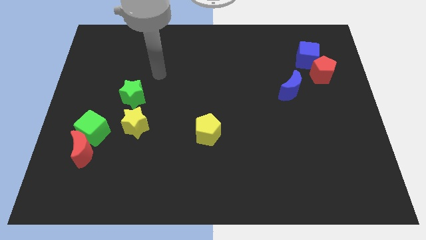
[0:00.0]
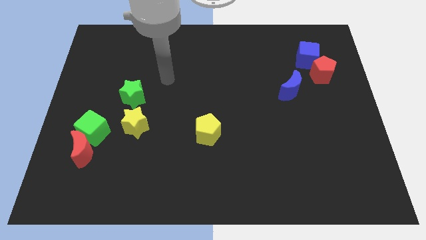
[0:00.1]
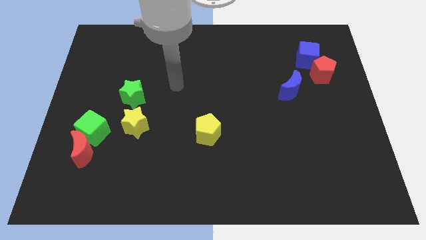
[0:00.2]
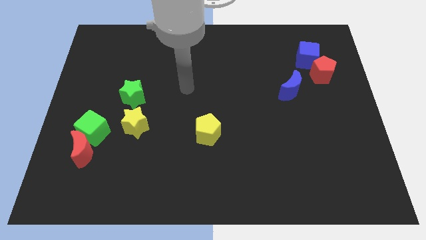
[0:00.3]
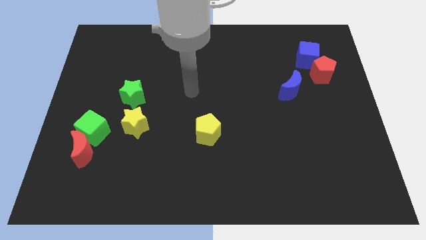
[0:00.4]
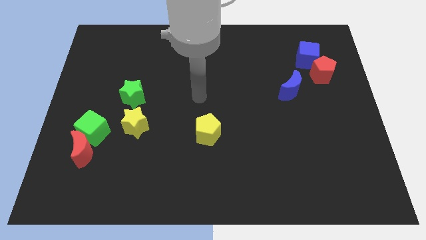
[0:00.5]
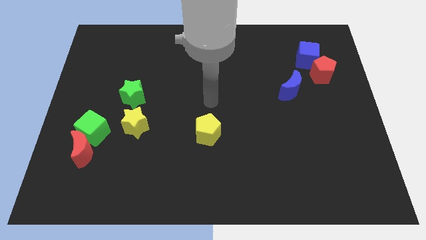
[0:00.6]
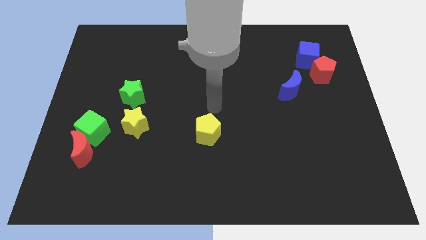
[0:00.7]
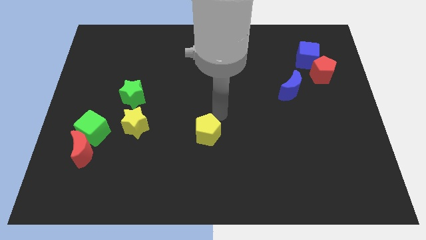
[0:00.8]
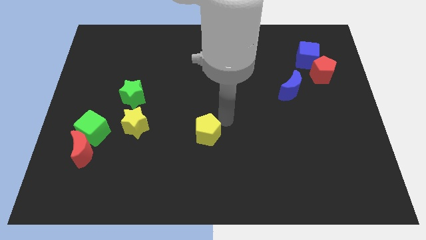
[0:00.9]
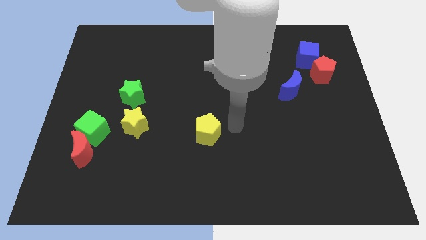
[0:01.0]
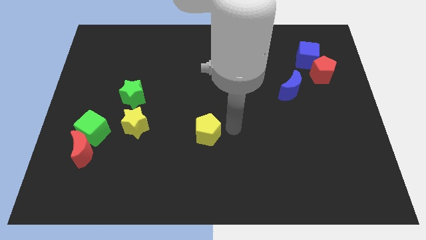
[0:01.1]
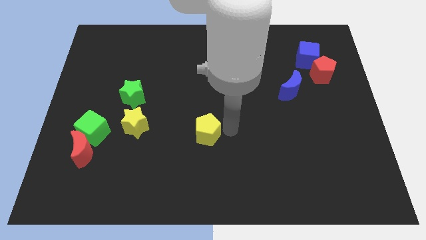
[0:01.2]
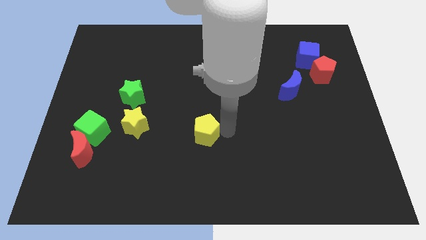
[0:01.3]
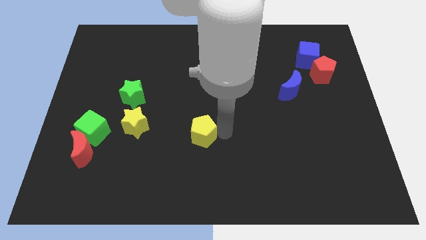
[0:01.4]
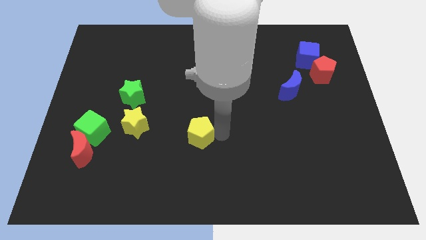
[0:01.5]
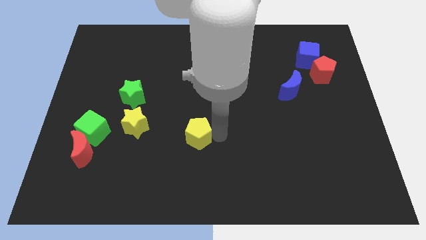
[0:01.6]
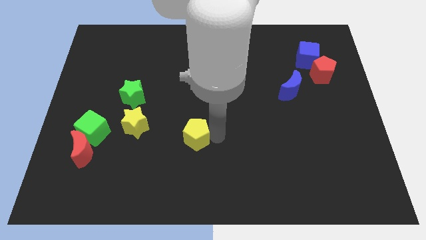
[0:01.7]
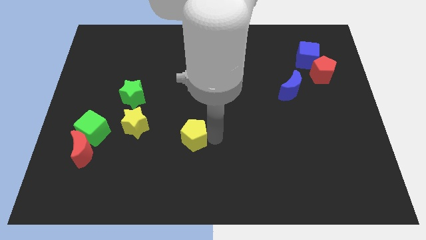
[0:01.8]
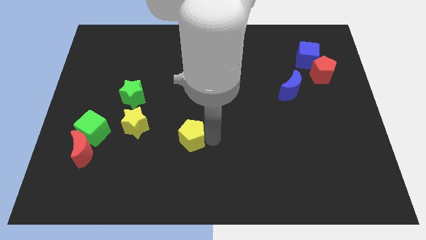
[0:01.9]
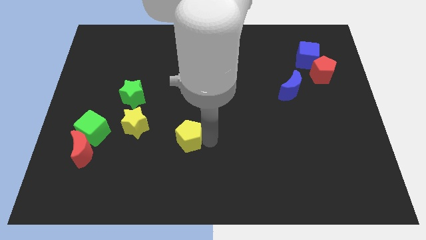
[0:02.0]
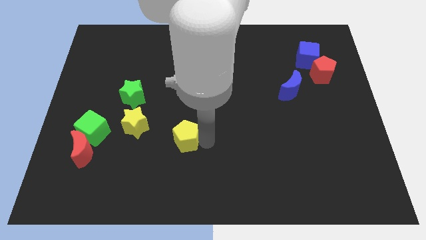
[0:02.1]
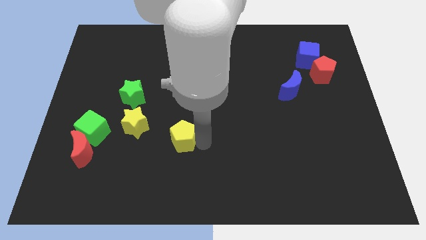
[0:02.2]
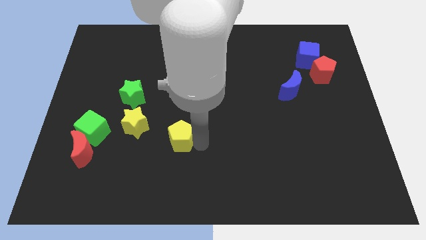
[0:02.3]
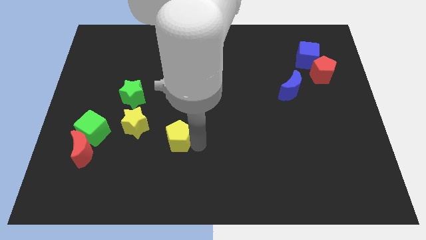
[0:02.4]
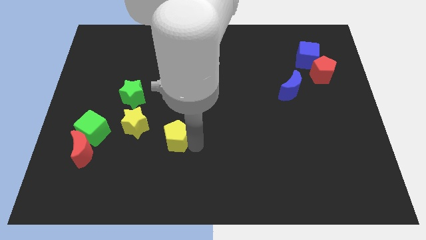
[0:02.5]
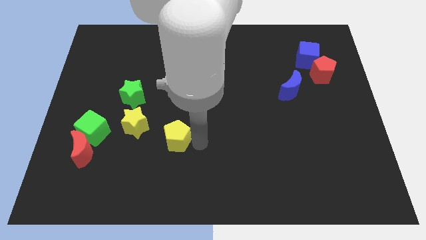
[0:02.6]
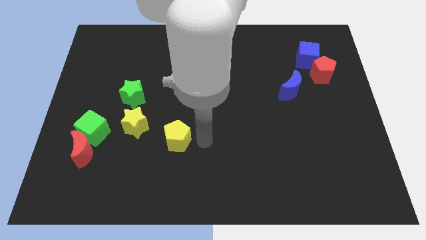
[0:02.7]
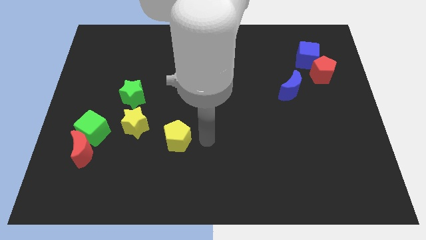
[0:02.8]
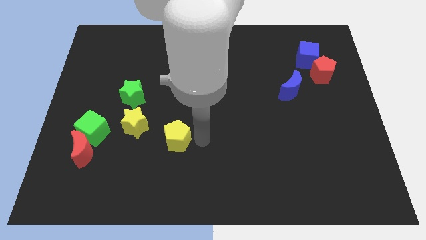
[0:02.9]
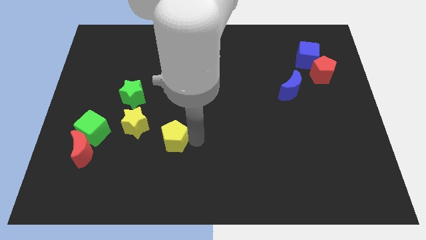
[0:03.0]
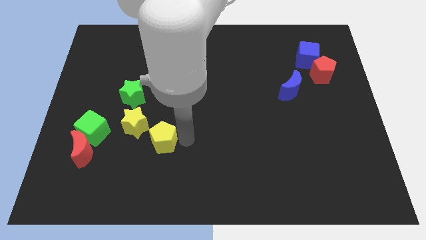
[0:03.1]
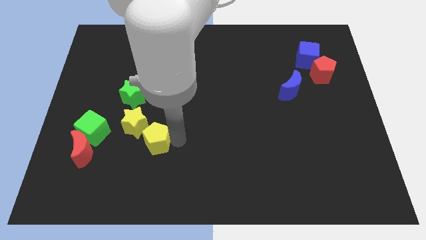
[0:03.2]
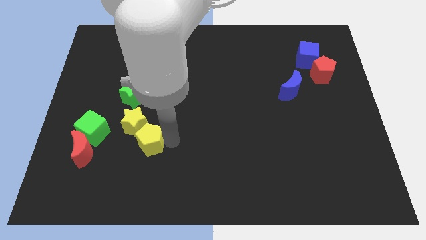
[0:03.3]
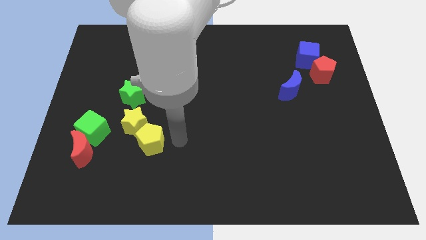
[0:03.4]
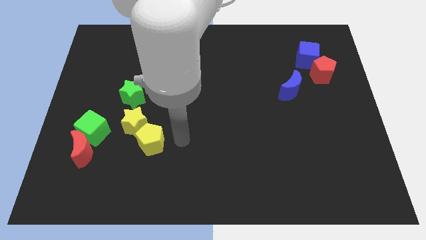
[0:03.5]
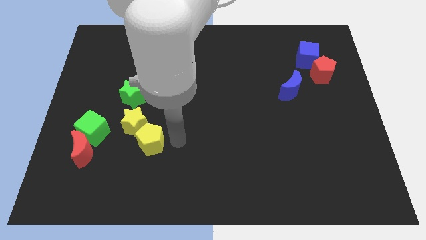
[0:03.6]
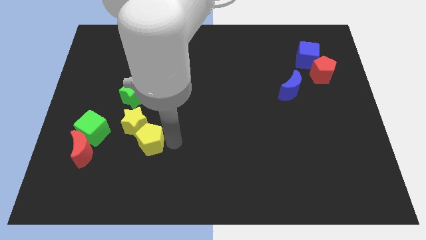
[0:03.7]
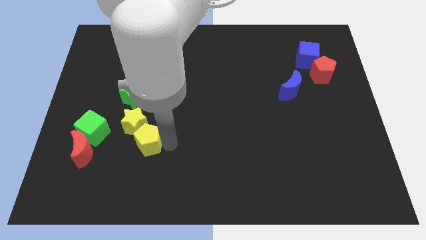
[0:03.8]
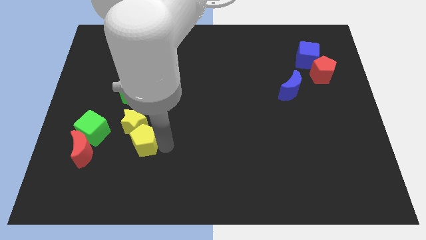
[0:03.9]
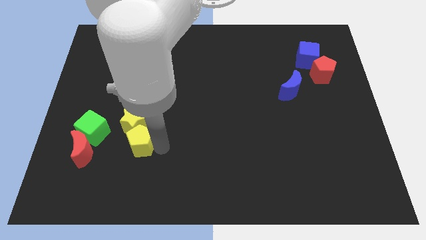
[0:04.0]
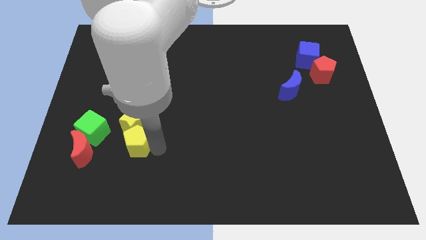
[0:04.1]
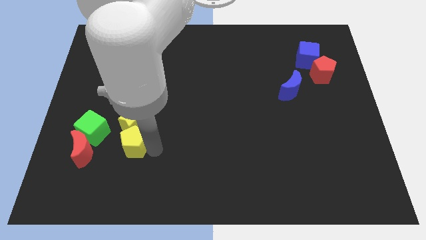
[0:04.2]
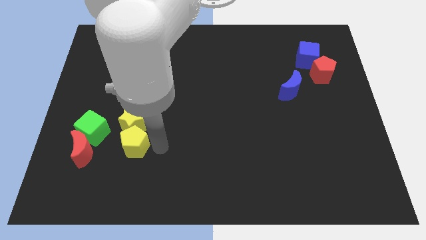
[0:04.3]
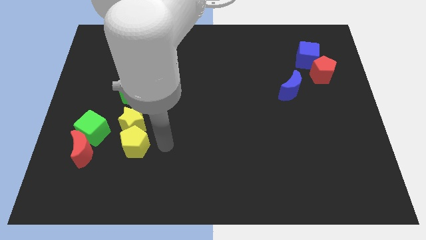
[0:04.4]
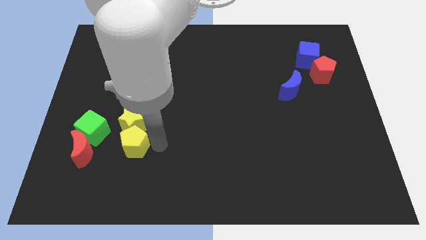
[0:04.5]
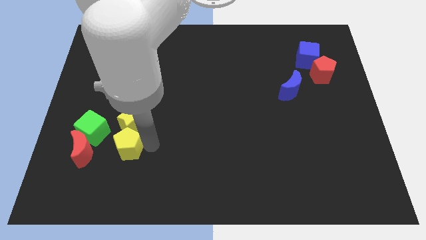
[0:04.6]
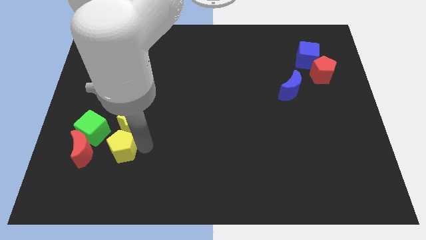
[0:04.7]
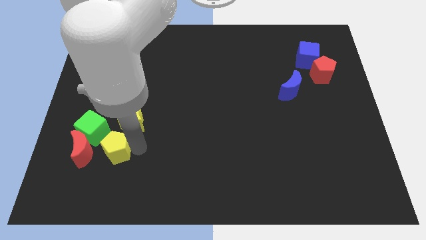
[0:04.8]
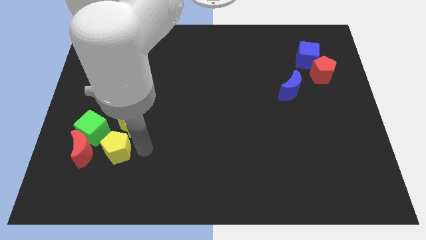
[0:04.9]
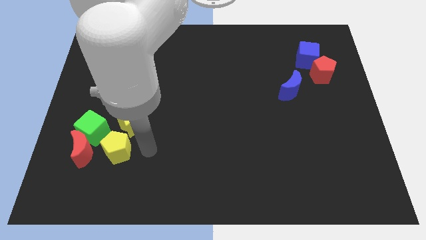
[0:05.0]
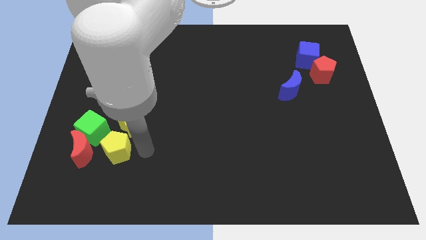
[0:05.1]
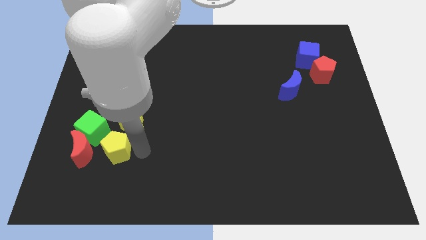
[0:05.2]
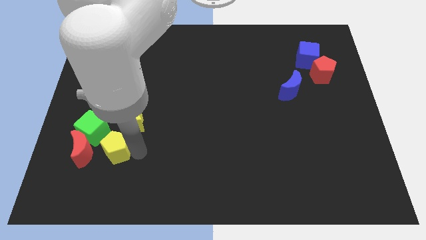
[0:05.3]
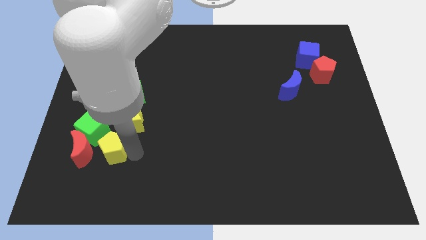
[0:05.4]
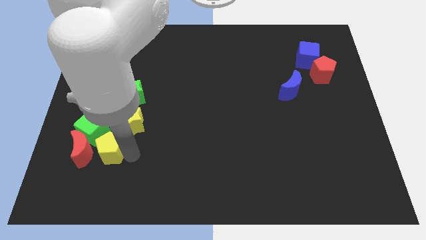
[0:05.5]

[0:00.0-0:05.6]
push the yellow pentagon next to the red moon

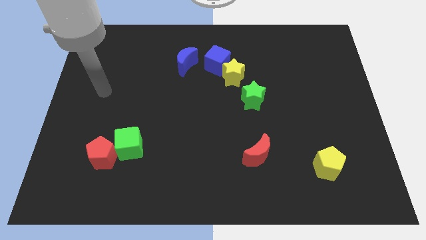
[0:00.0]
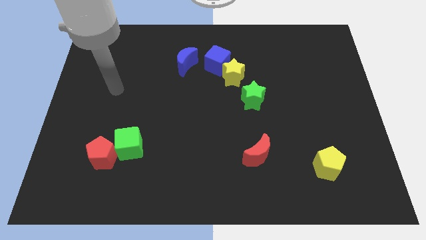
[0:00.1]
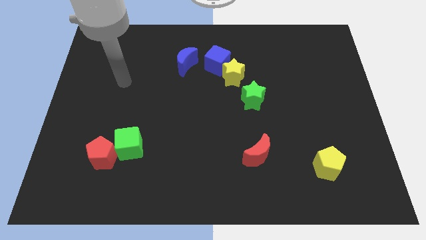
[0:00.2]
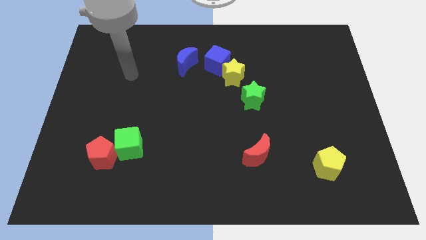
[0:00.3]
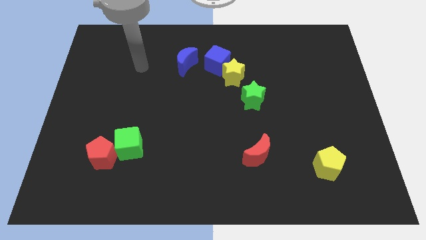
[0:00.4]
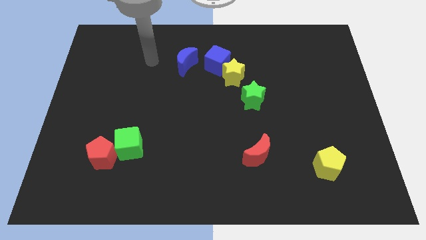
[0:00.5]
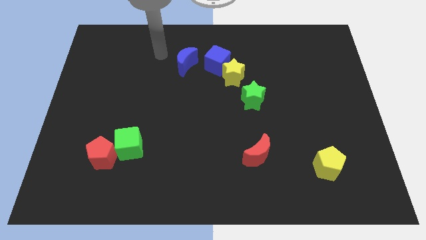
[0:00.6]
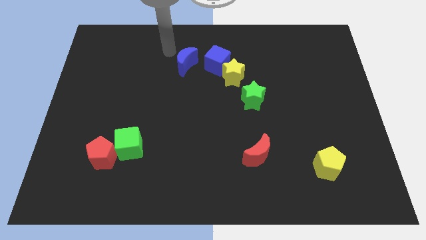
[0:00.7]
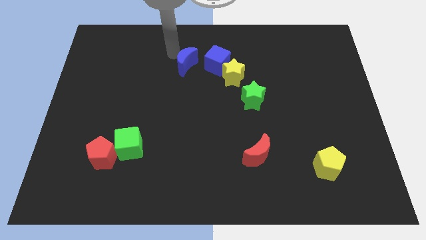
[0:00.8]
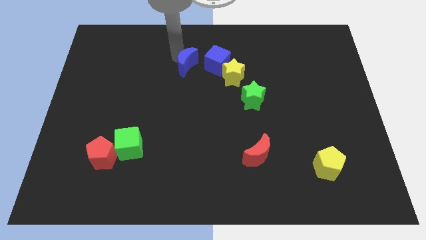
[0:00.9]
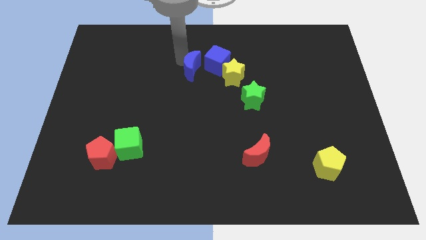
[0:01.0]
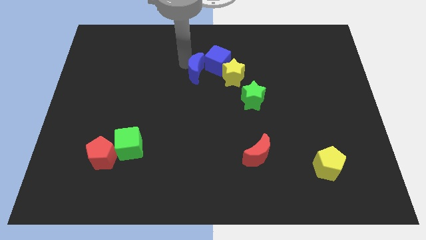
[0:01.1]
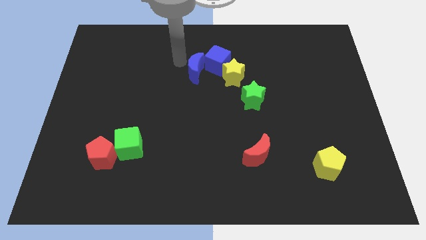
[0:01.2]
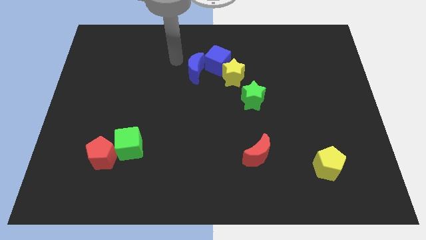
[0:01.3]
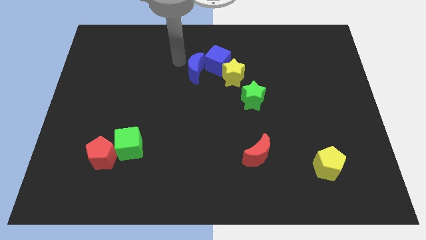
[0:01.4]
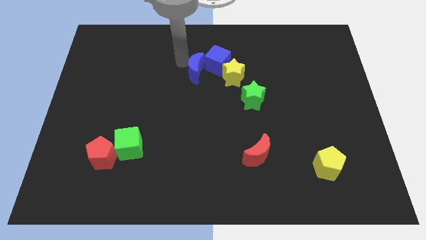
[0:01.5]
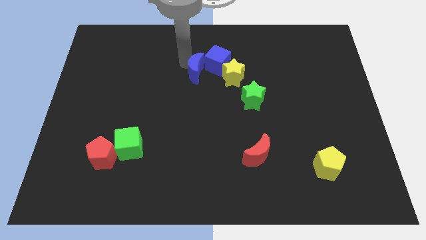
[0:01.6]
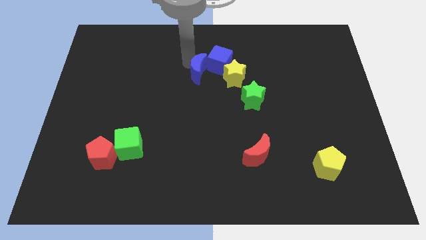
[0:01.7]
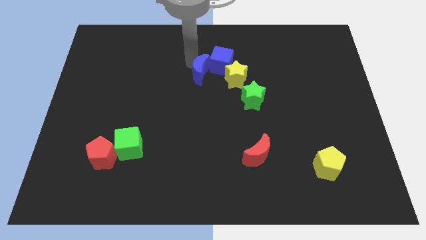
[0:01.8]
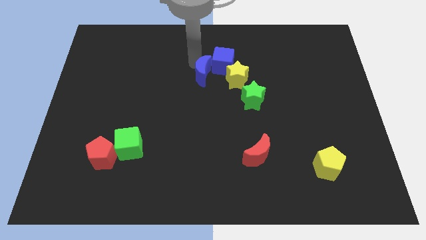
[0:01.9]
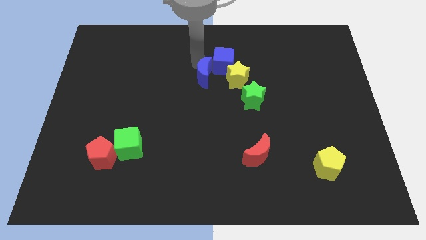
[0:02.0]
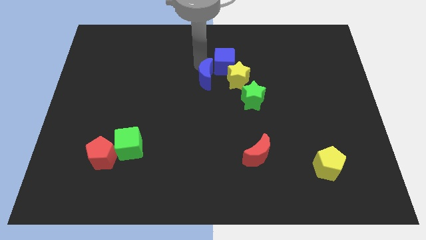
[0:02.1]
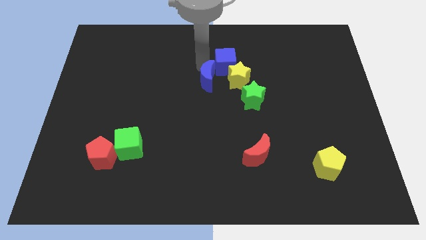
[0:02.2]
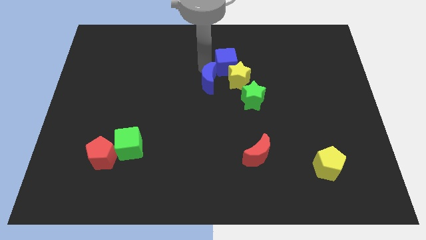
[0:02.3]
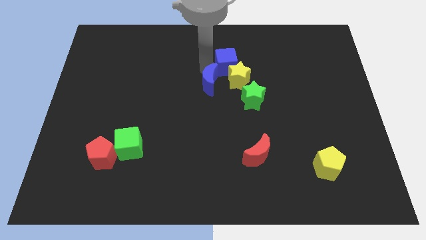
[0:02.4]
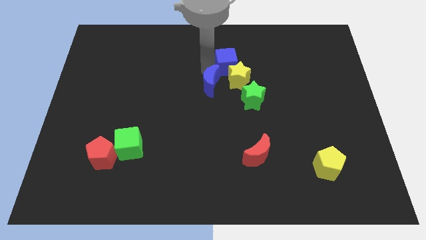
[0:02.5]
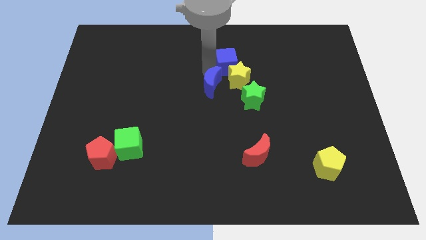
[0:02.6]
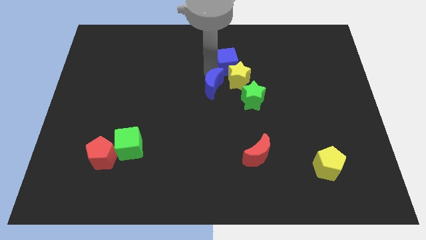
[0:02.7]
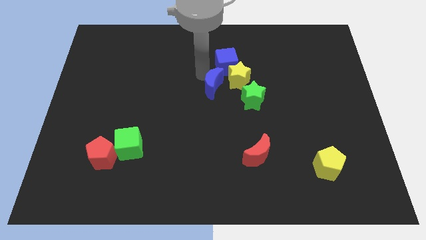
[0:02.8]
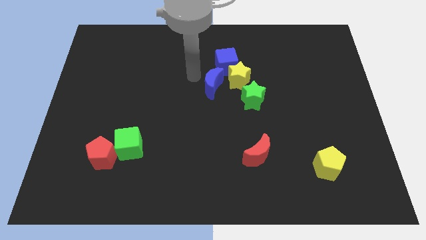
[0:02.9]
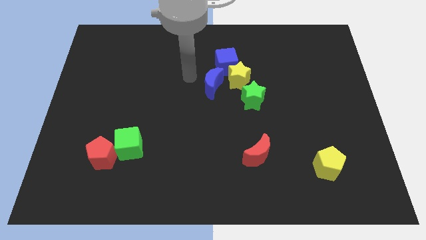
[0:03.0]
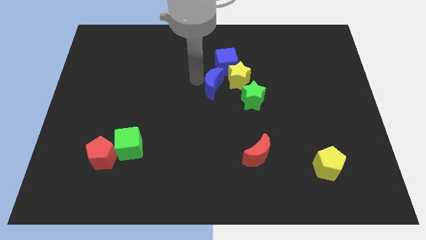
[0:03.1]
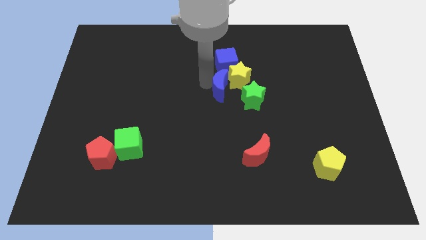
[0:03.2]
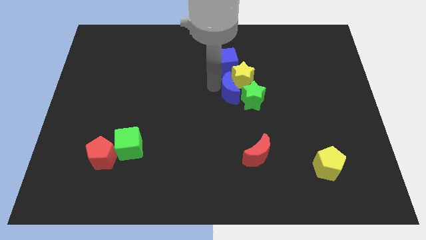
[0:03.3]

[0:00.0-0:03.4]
slide the blue moon next to the green star
